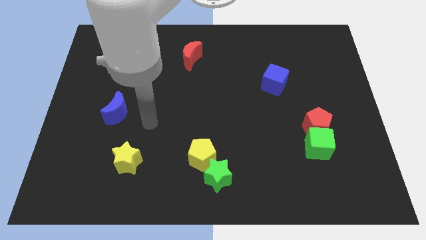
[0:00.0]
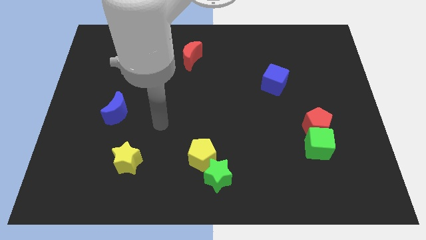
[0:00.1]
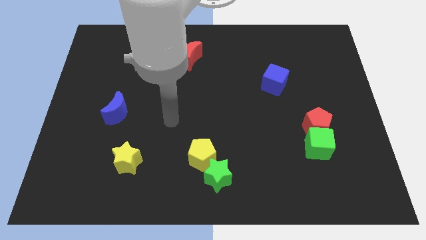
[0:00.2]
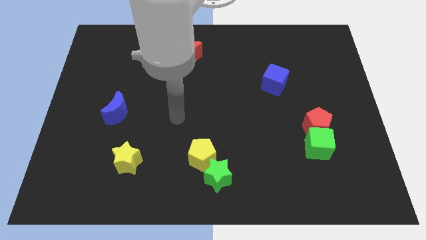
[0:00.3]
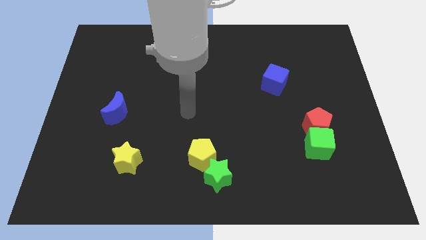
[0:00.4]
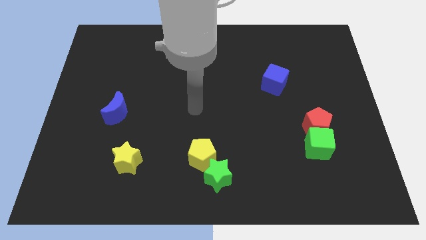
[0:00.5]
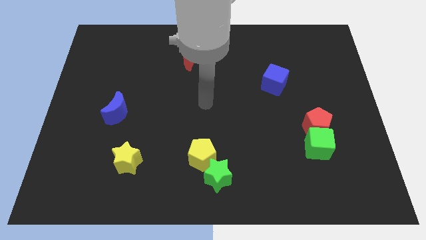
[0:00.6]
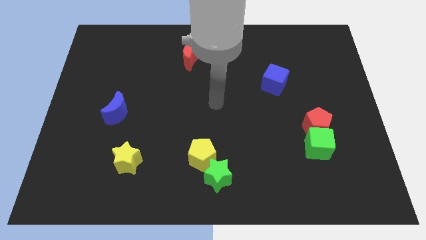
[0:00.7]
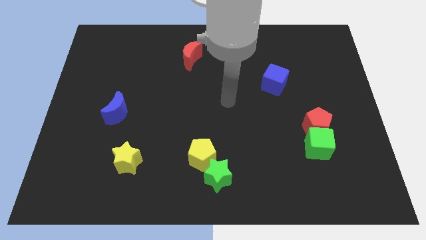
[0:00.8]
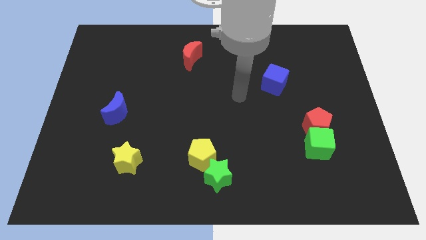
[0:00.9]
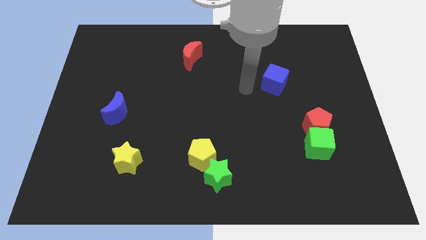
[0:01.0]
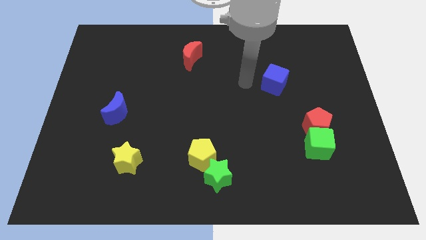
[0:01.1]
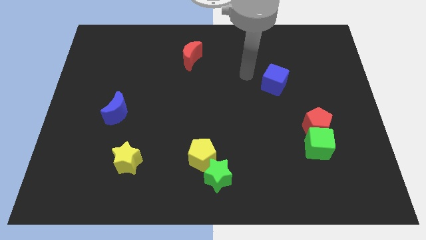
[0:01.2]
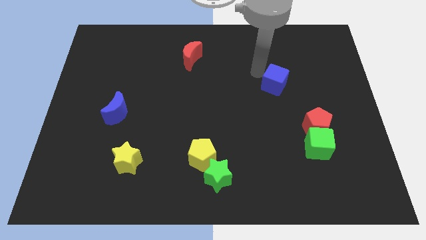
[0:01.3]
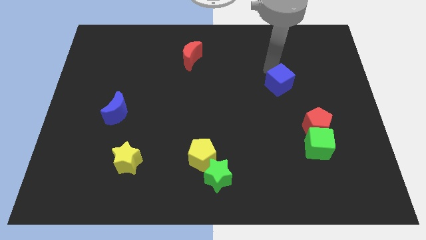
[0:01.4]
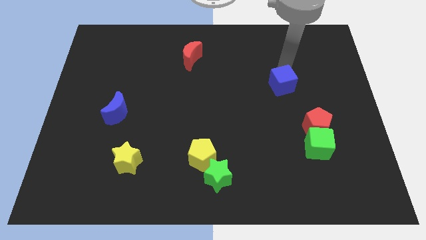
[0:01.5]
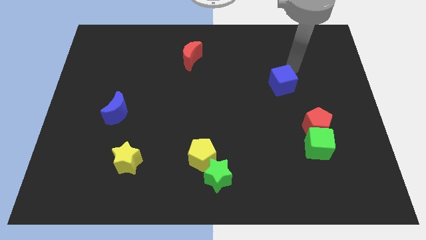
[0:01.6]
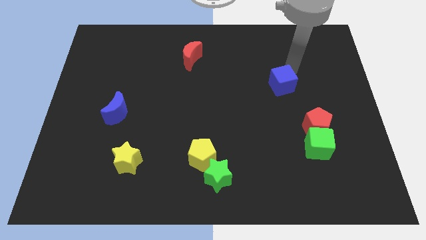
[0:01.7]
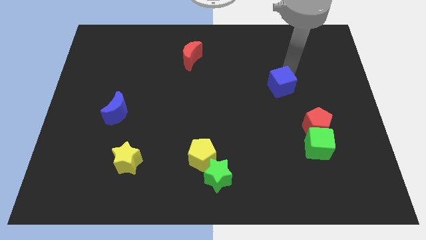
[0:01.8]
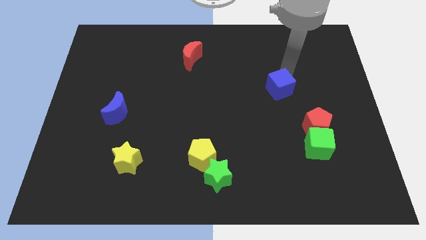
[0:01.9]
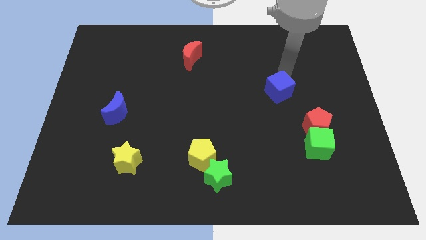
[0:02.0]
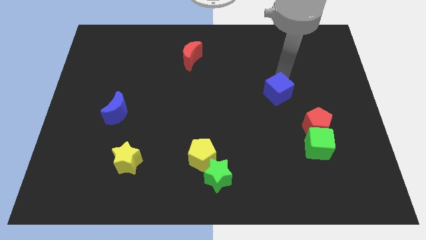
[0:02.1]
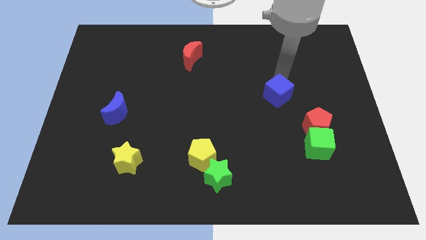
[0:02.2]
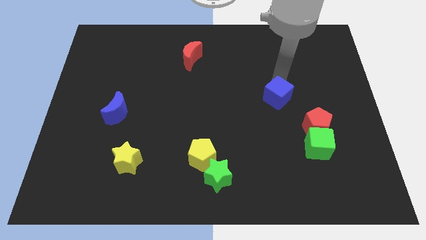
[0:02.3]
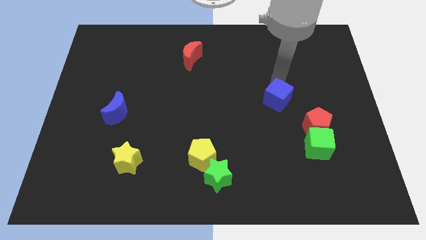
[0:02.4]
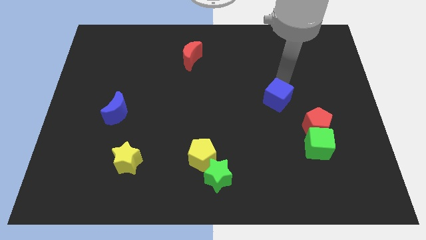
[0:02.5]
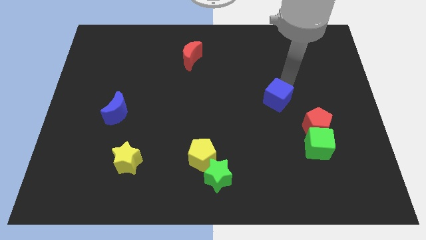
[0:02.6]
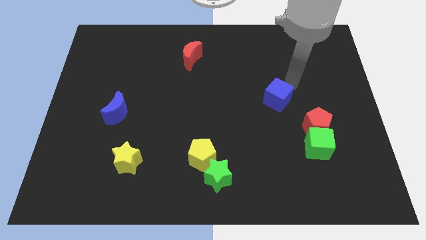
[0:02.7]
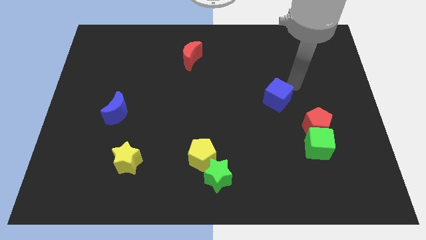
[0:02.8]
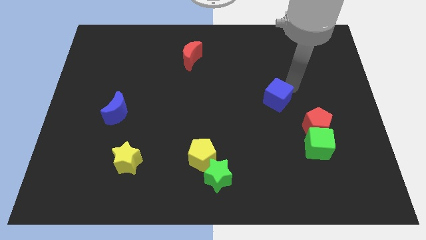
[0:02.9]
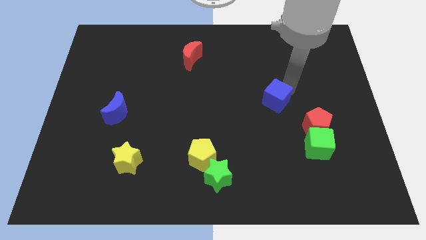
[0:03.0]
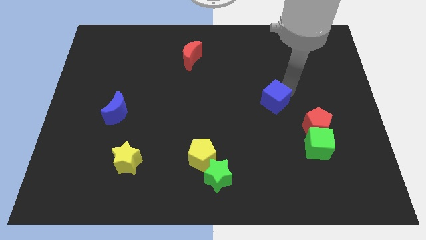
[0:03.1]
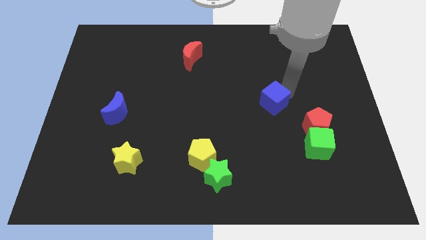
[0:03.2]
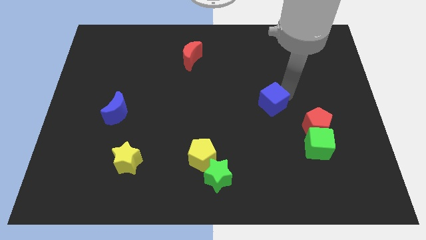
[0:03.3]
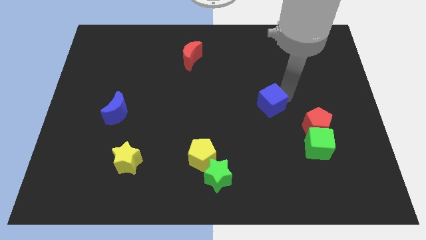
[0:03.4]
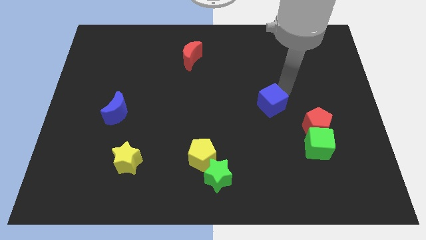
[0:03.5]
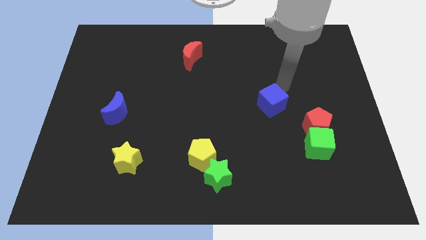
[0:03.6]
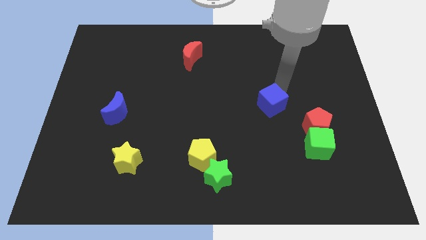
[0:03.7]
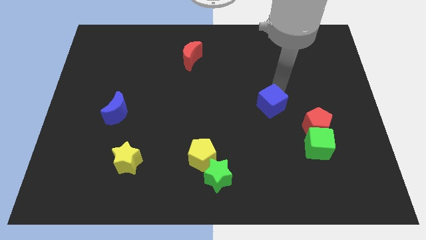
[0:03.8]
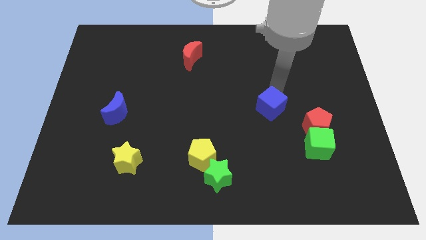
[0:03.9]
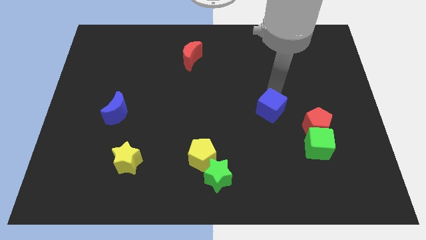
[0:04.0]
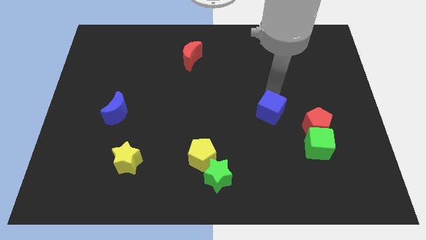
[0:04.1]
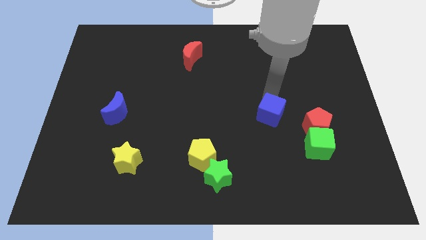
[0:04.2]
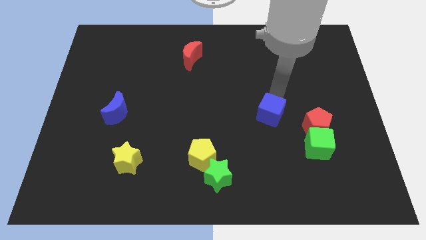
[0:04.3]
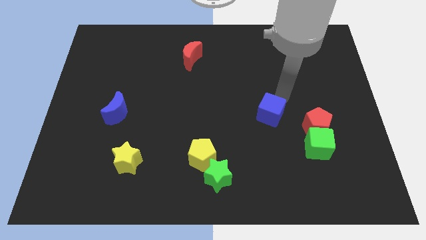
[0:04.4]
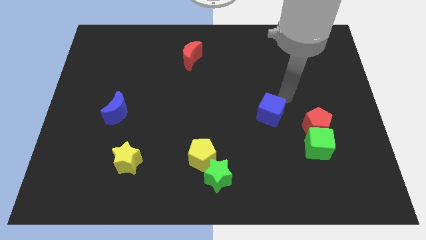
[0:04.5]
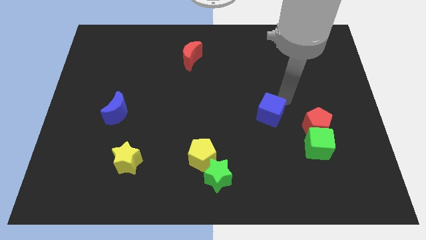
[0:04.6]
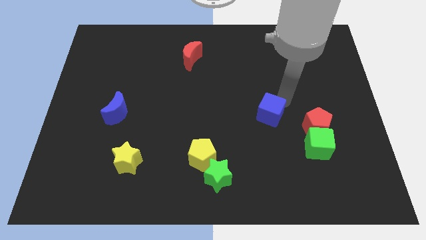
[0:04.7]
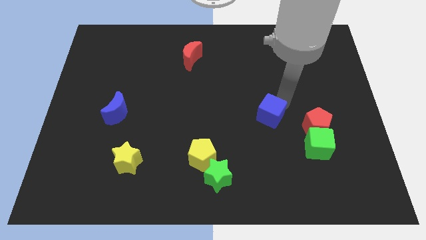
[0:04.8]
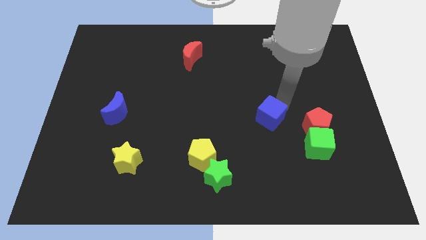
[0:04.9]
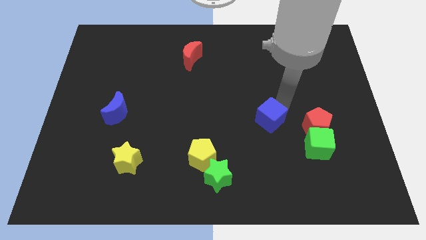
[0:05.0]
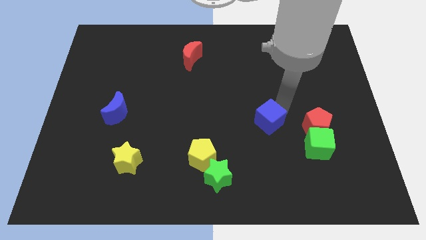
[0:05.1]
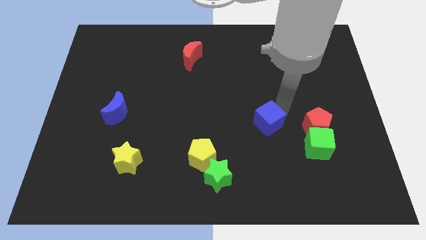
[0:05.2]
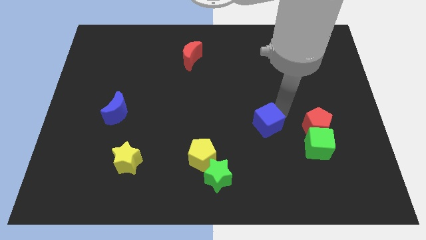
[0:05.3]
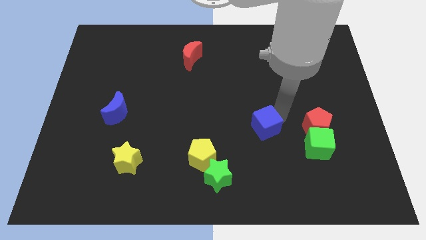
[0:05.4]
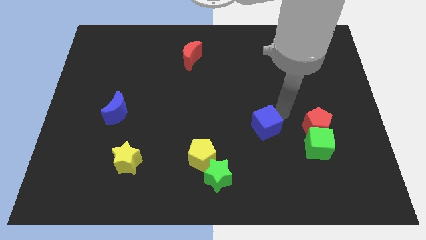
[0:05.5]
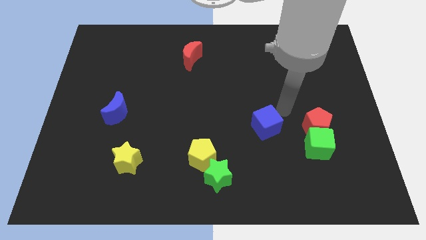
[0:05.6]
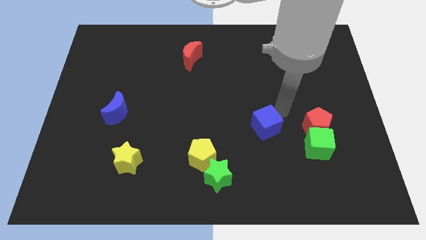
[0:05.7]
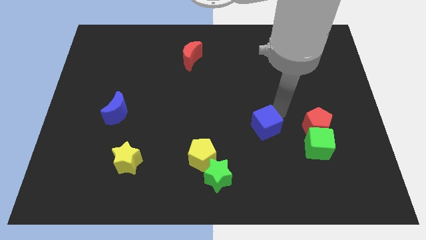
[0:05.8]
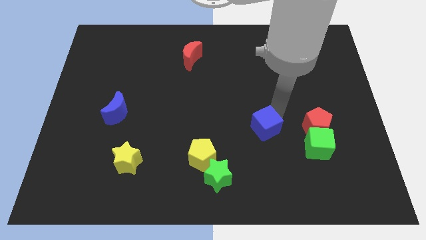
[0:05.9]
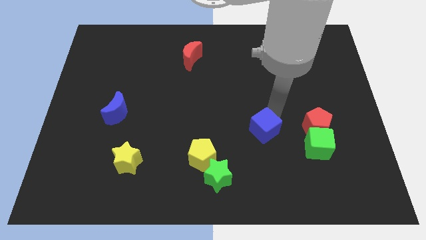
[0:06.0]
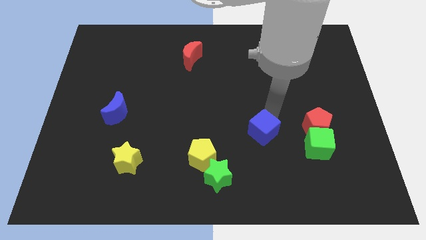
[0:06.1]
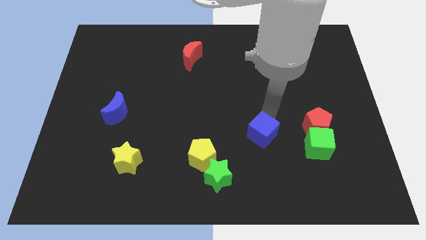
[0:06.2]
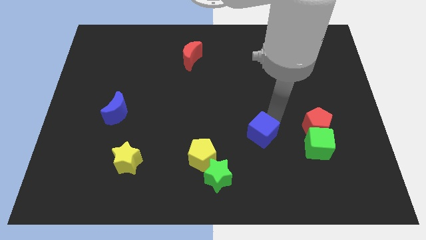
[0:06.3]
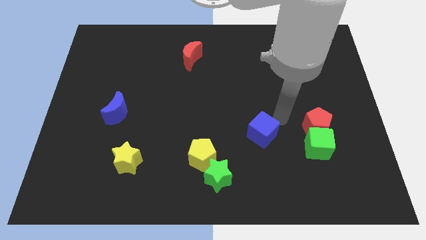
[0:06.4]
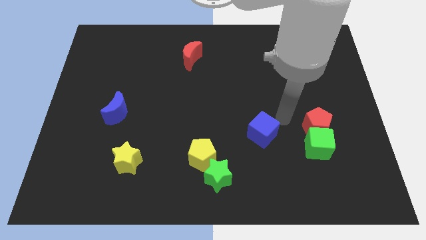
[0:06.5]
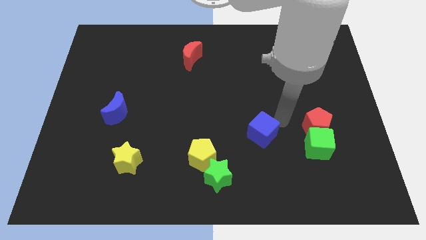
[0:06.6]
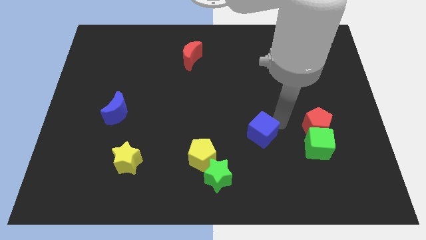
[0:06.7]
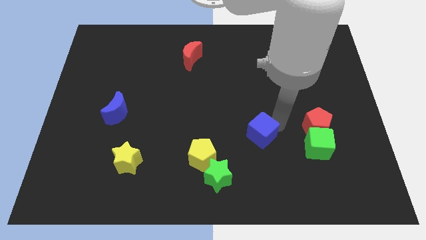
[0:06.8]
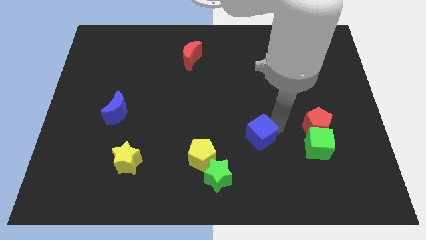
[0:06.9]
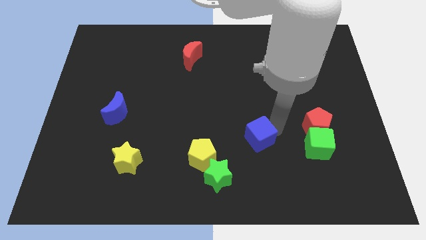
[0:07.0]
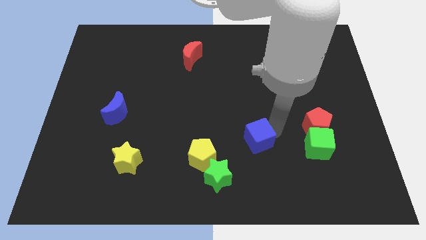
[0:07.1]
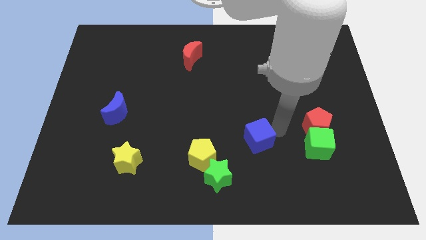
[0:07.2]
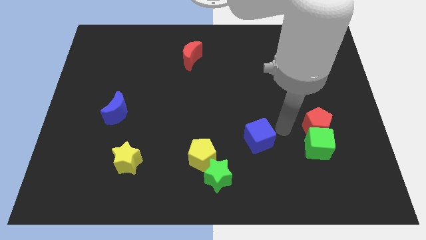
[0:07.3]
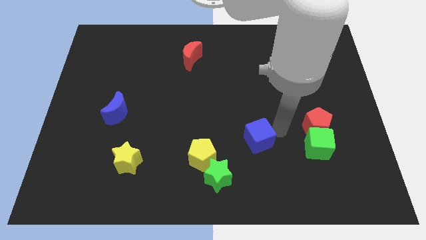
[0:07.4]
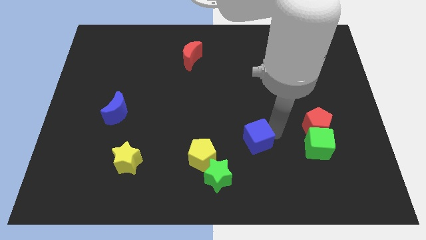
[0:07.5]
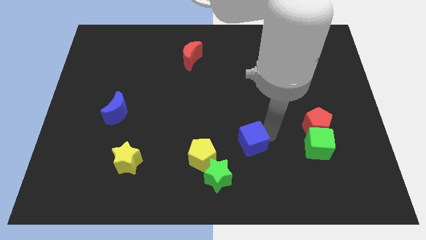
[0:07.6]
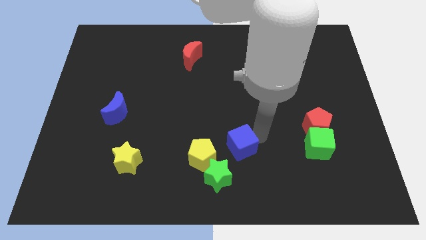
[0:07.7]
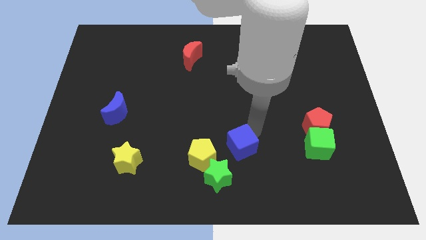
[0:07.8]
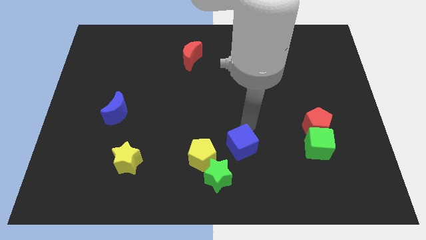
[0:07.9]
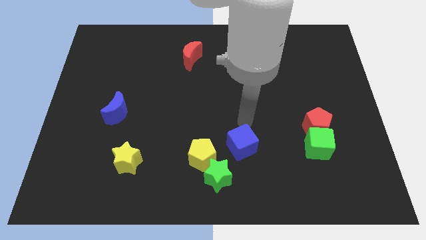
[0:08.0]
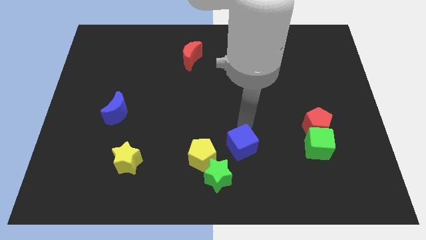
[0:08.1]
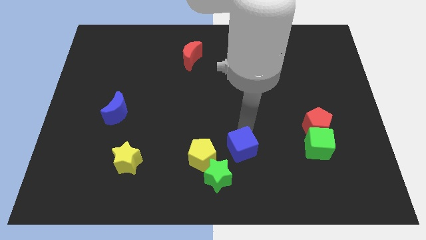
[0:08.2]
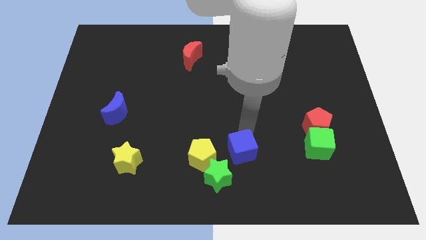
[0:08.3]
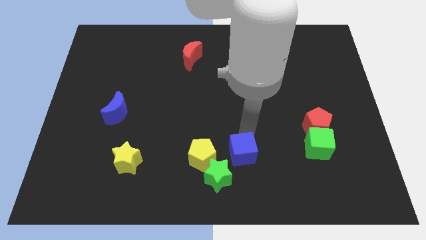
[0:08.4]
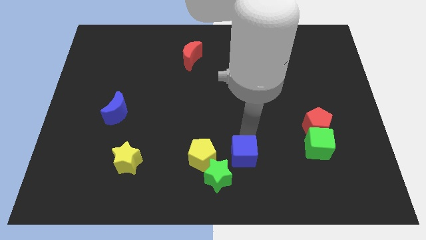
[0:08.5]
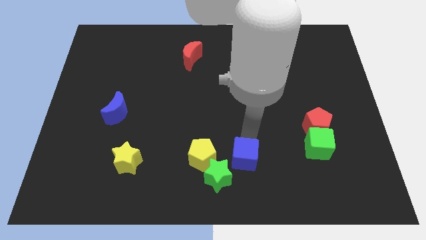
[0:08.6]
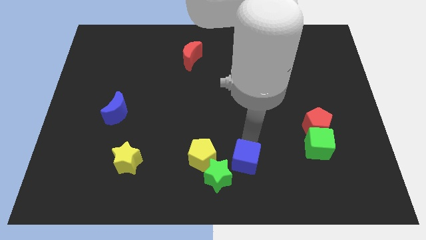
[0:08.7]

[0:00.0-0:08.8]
put the blue cube to the bottom side
